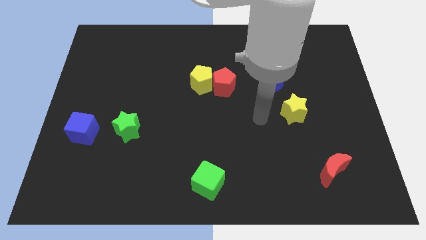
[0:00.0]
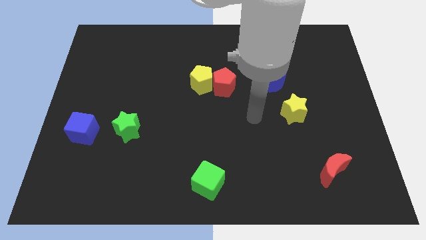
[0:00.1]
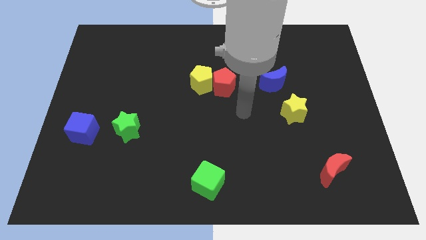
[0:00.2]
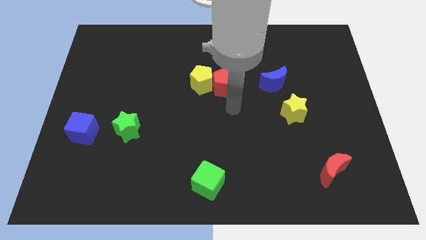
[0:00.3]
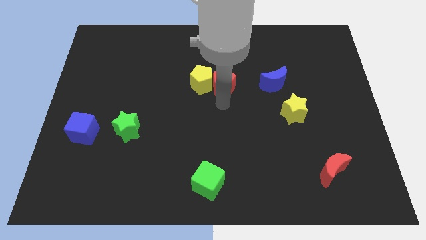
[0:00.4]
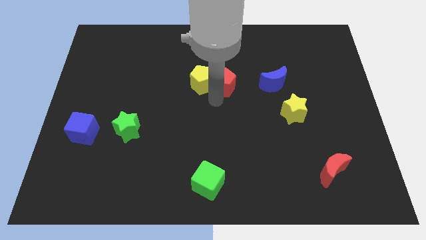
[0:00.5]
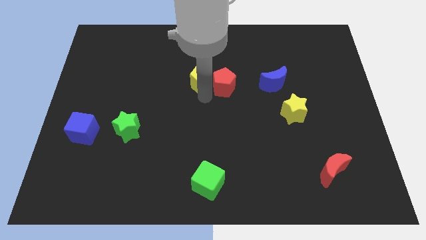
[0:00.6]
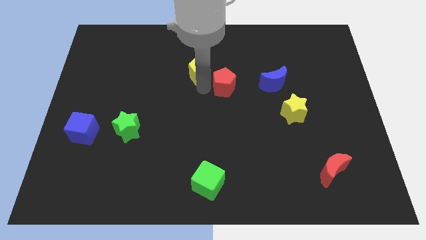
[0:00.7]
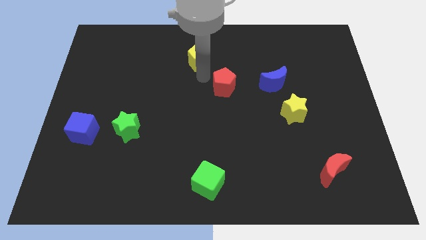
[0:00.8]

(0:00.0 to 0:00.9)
move the red pentagon away from the yellow pentagon

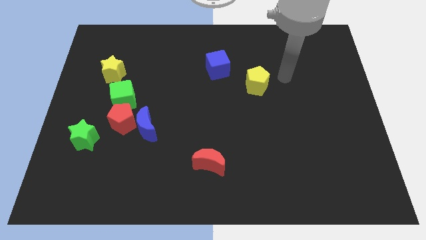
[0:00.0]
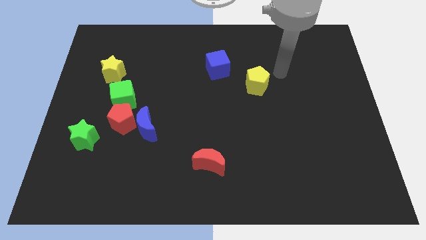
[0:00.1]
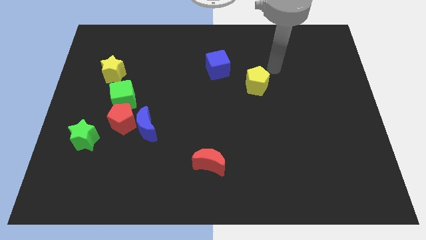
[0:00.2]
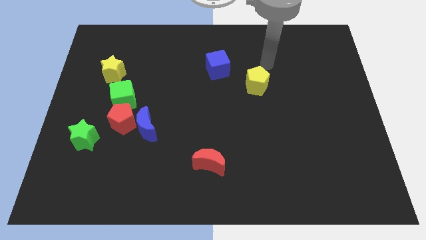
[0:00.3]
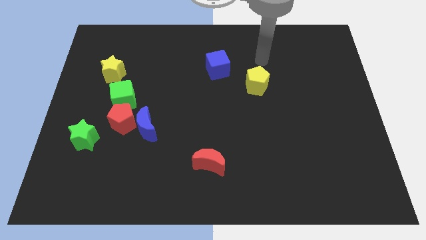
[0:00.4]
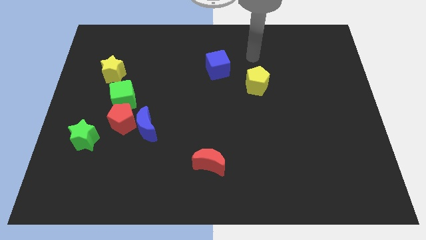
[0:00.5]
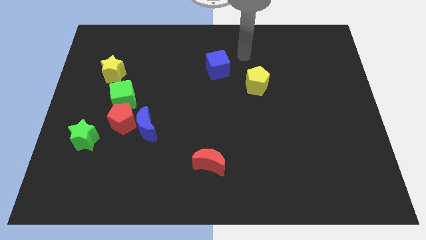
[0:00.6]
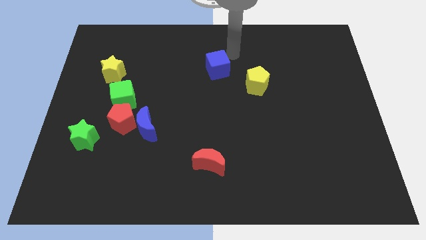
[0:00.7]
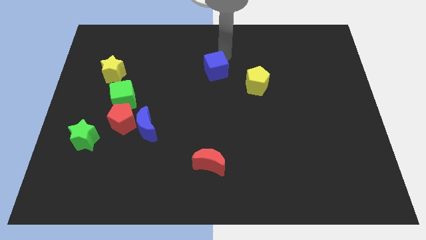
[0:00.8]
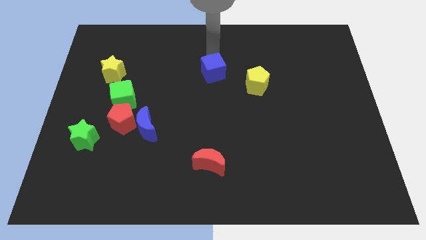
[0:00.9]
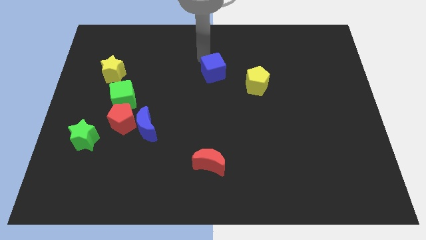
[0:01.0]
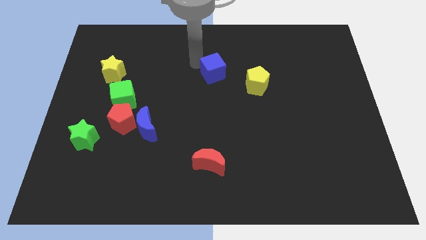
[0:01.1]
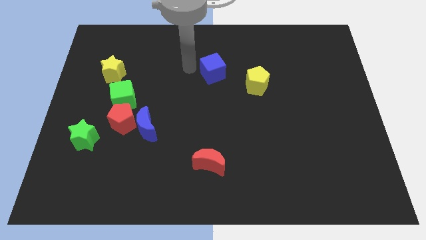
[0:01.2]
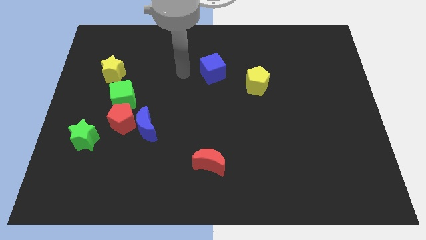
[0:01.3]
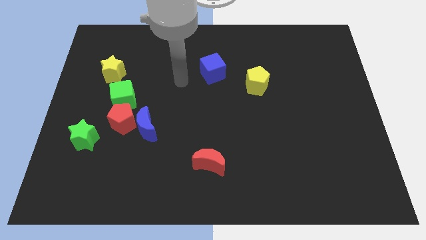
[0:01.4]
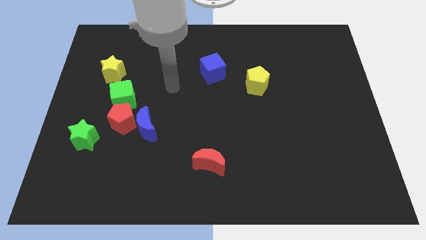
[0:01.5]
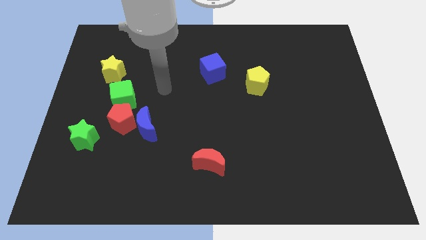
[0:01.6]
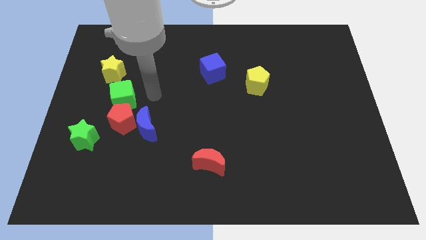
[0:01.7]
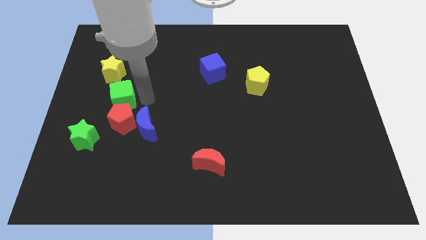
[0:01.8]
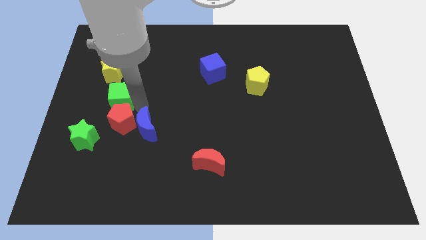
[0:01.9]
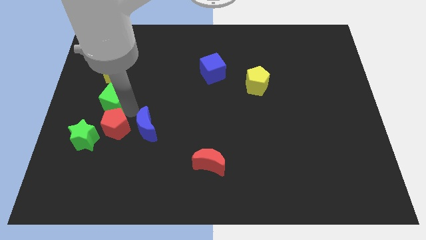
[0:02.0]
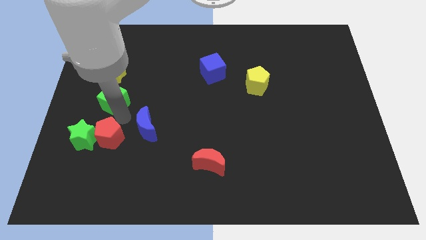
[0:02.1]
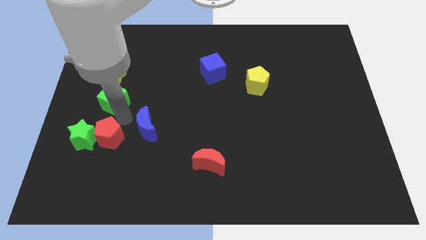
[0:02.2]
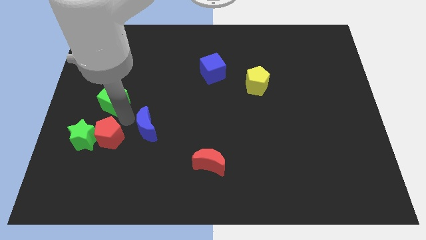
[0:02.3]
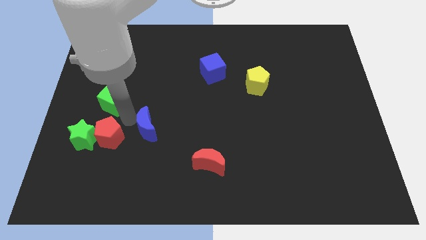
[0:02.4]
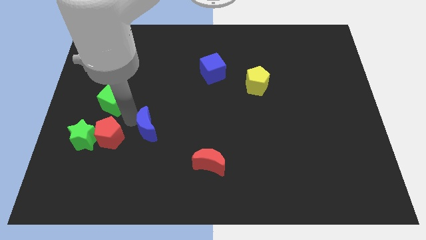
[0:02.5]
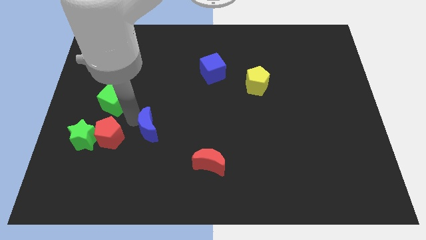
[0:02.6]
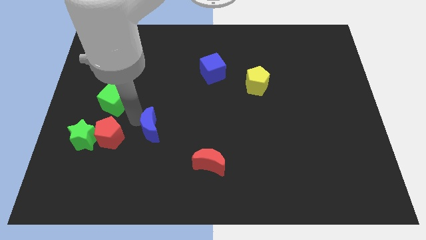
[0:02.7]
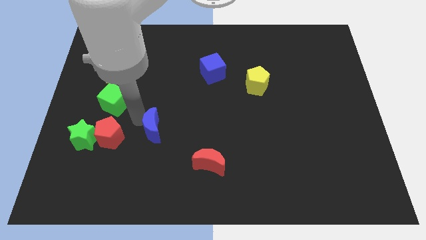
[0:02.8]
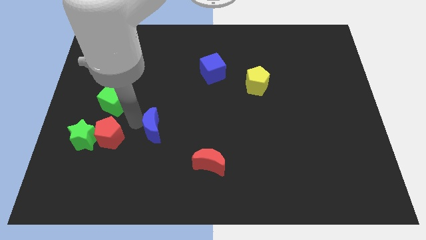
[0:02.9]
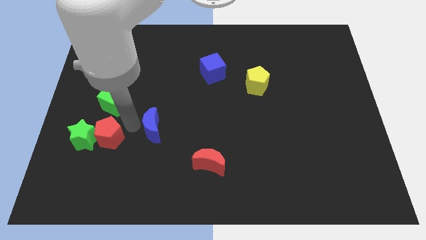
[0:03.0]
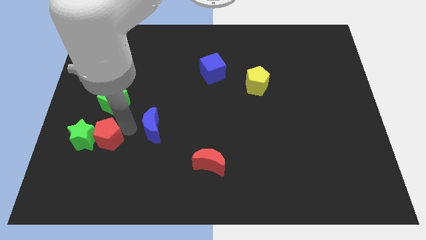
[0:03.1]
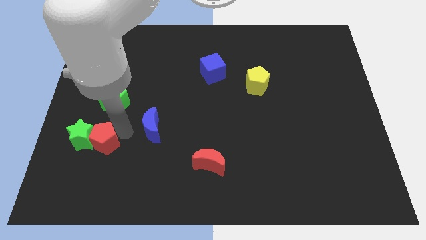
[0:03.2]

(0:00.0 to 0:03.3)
pull the blue moon apart from the red pentagon

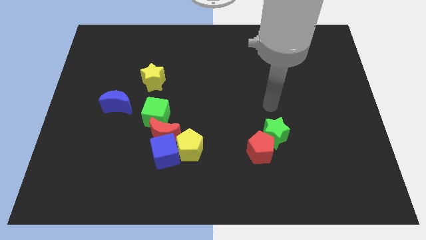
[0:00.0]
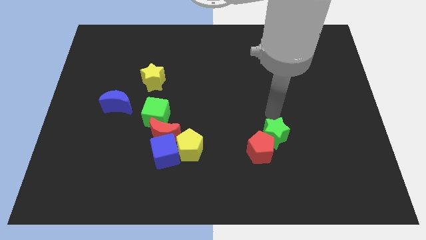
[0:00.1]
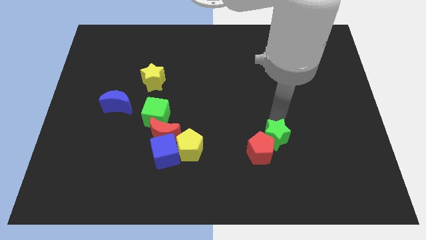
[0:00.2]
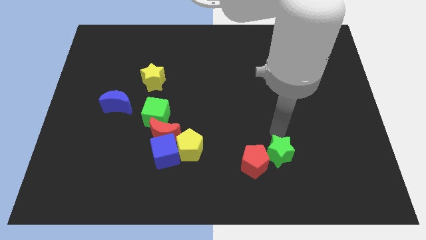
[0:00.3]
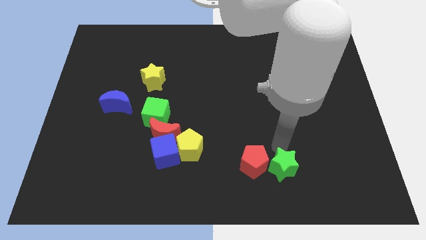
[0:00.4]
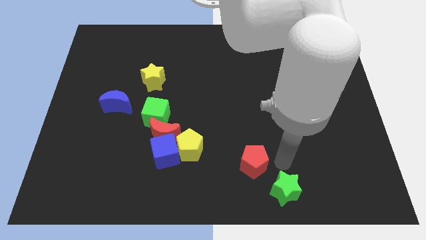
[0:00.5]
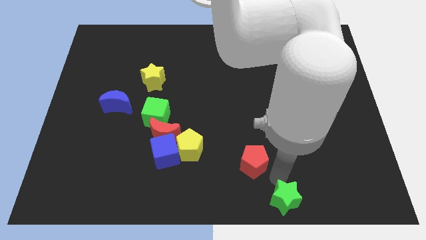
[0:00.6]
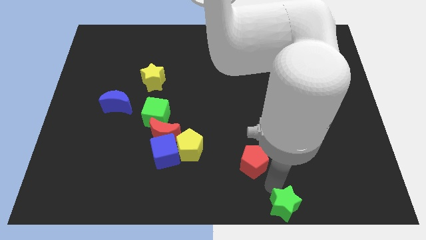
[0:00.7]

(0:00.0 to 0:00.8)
separate the red pentagon from the green star

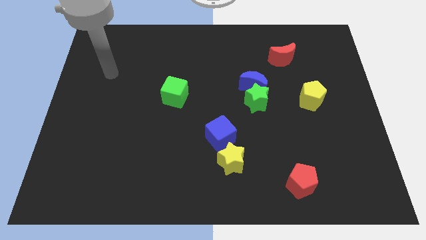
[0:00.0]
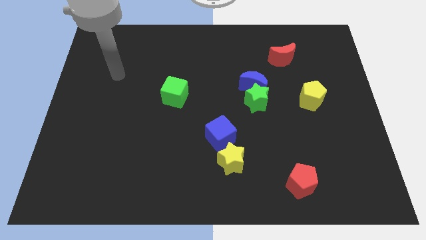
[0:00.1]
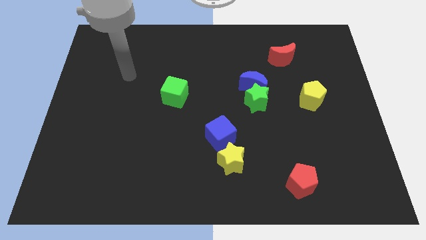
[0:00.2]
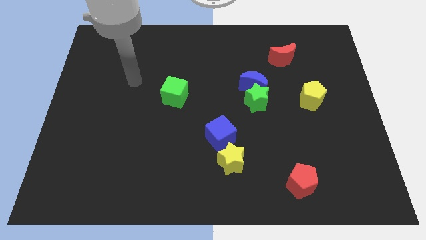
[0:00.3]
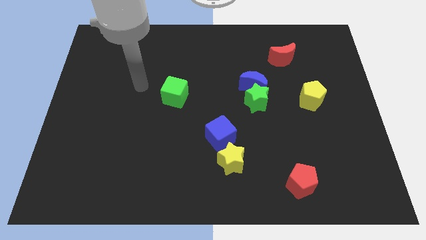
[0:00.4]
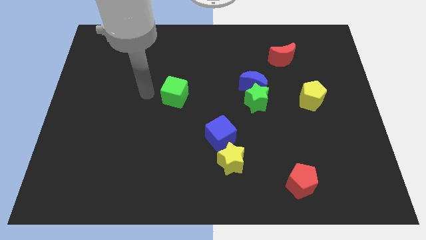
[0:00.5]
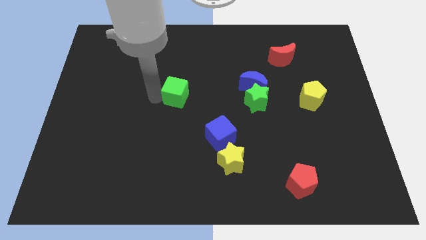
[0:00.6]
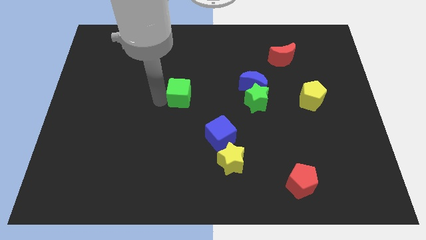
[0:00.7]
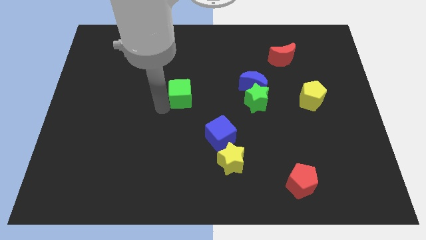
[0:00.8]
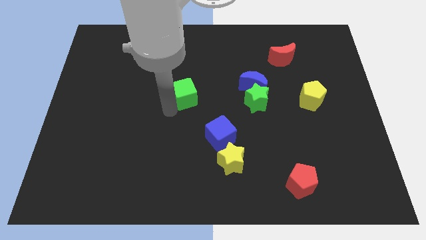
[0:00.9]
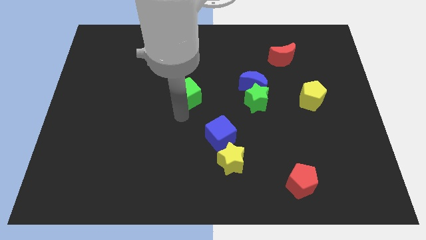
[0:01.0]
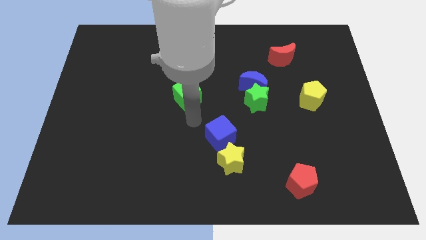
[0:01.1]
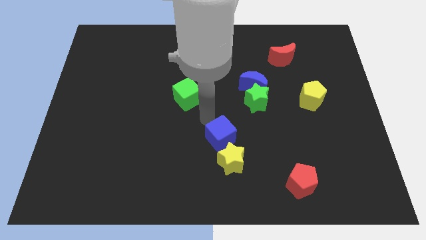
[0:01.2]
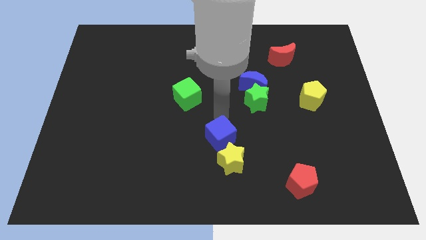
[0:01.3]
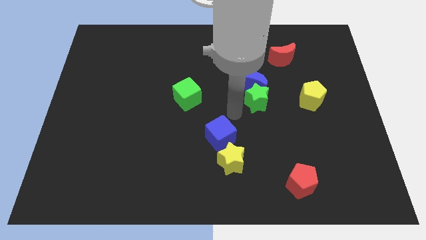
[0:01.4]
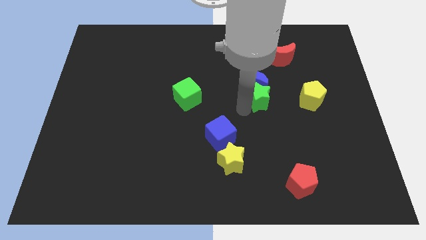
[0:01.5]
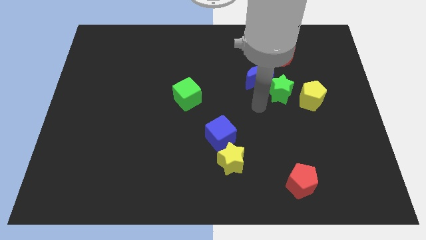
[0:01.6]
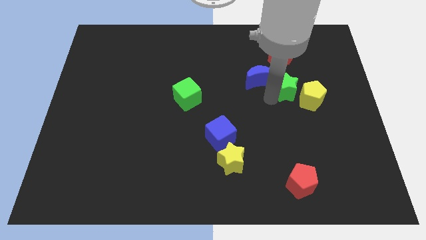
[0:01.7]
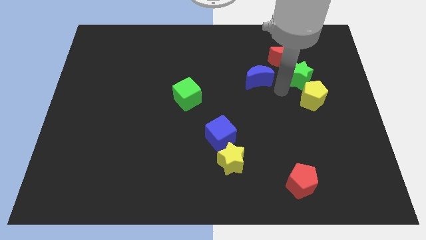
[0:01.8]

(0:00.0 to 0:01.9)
separate the blue moon from the green star

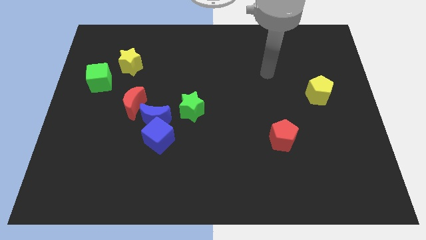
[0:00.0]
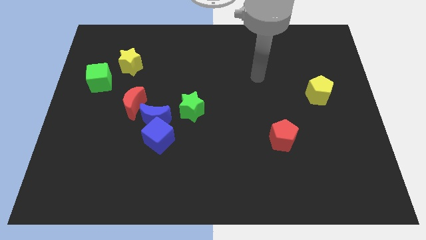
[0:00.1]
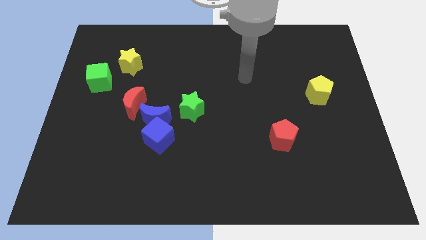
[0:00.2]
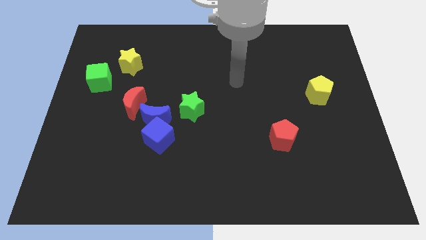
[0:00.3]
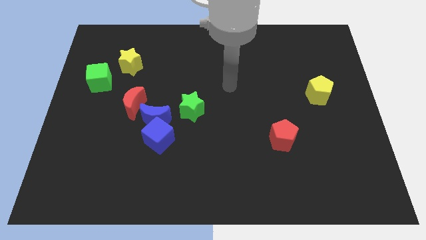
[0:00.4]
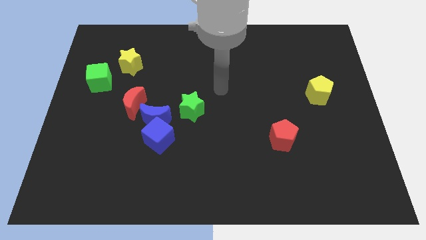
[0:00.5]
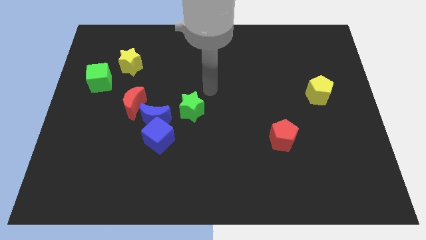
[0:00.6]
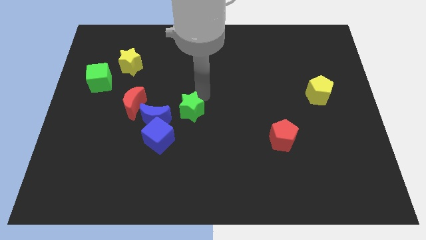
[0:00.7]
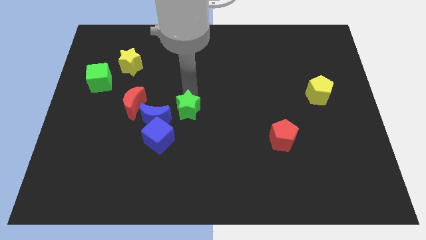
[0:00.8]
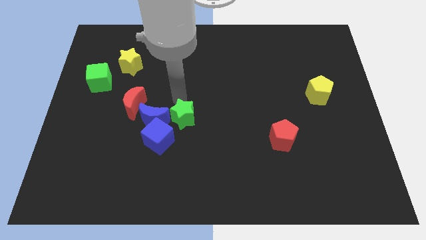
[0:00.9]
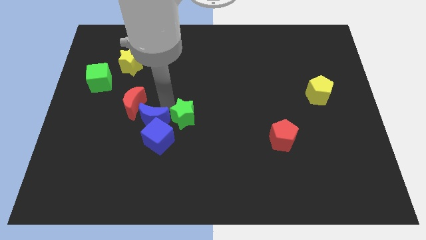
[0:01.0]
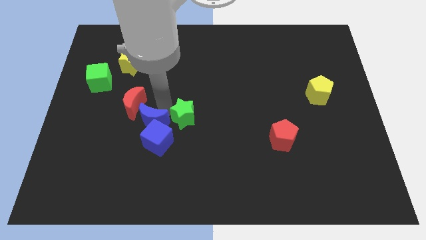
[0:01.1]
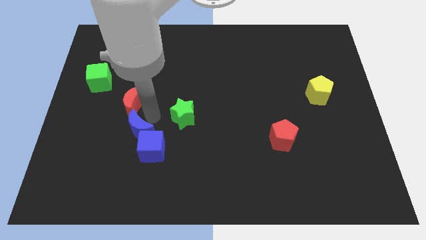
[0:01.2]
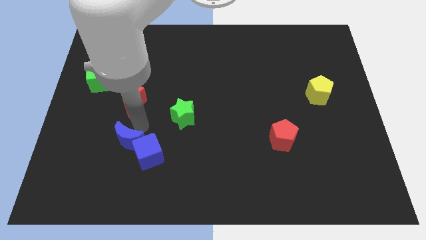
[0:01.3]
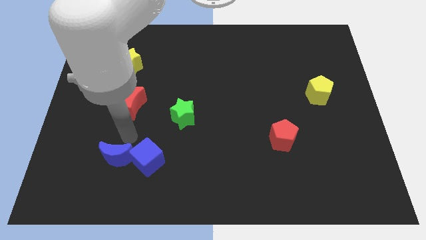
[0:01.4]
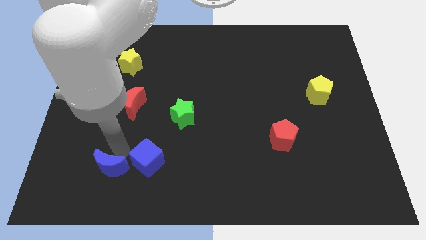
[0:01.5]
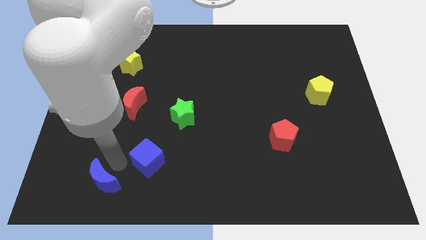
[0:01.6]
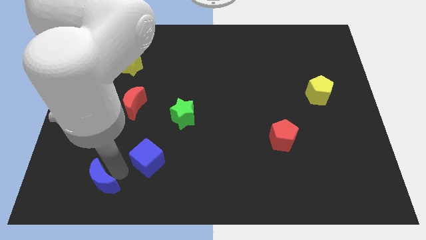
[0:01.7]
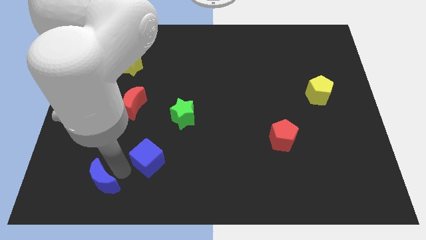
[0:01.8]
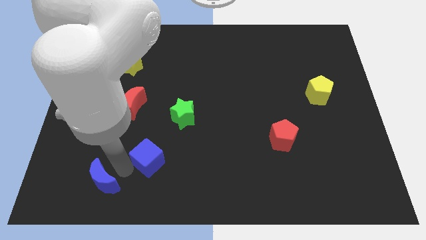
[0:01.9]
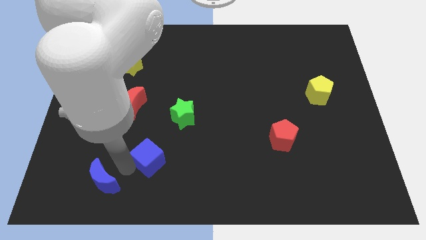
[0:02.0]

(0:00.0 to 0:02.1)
pull the blue cube apart from the blue moon

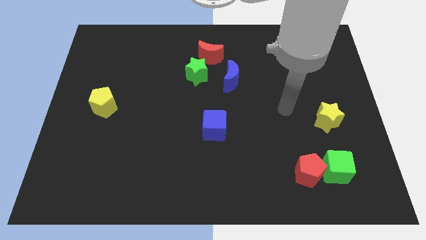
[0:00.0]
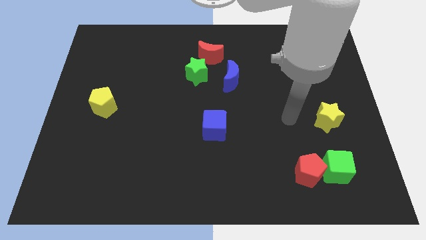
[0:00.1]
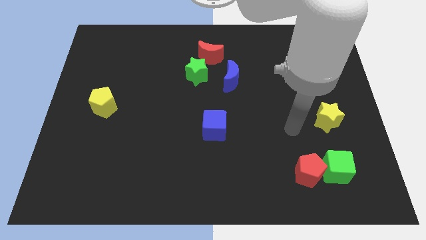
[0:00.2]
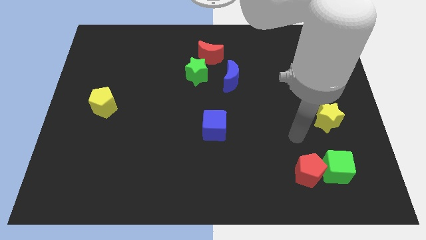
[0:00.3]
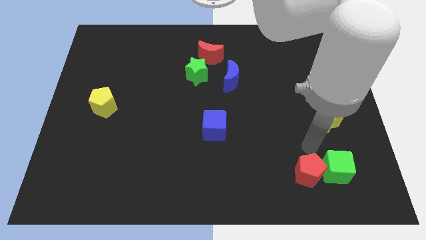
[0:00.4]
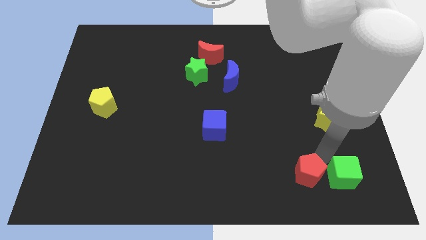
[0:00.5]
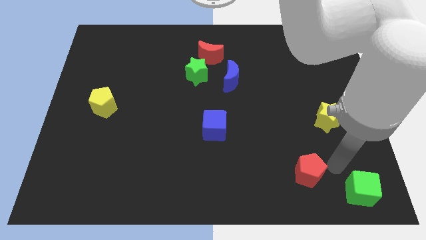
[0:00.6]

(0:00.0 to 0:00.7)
separate the red pentagon from the green cube
